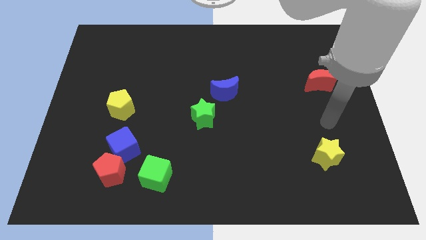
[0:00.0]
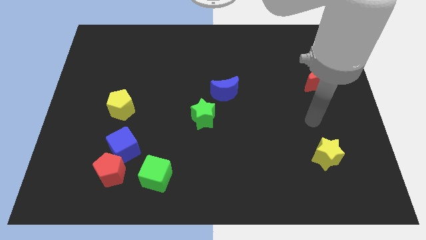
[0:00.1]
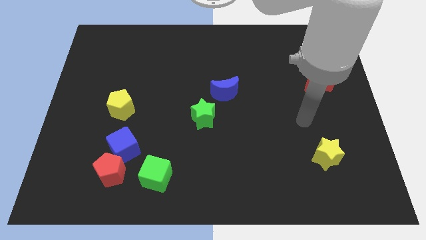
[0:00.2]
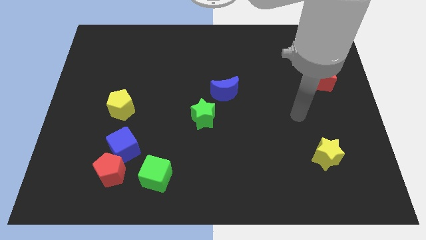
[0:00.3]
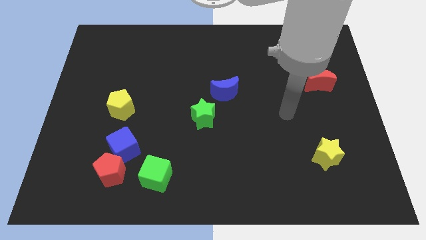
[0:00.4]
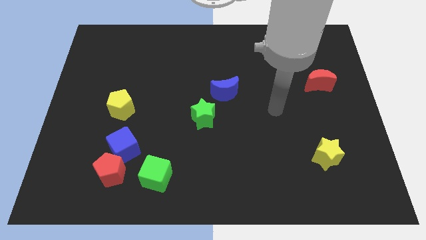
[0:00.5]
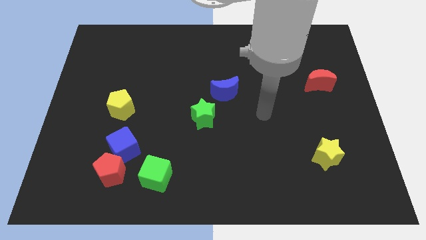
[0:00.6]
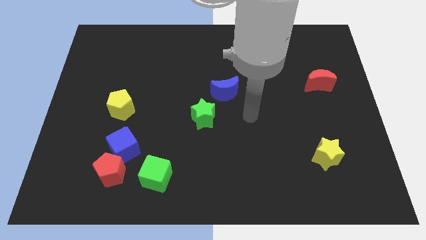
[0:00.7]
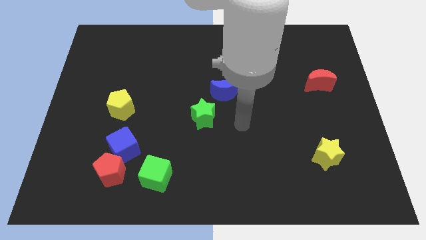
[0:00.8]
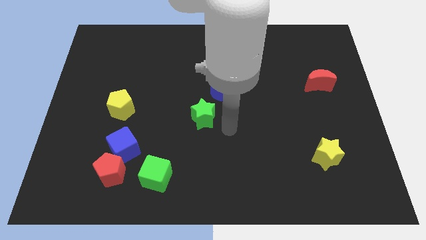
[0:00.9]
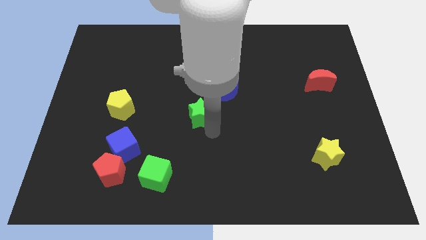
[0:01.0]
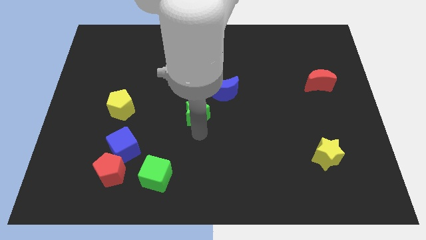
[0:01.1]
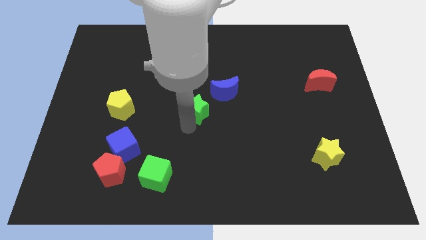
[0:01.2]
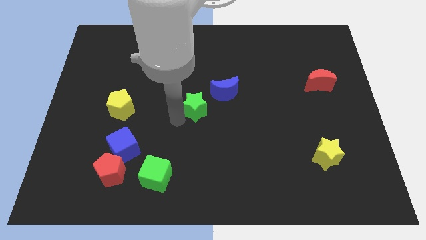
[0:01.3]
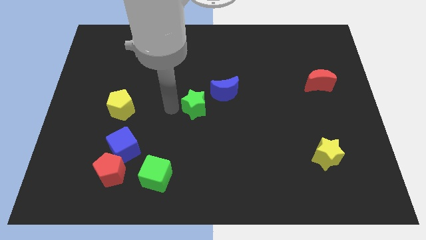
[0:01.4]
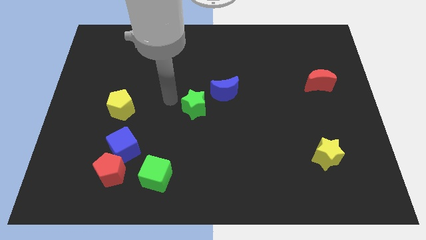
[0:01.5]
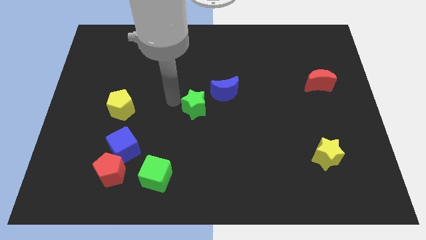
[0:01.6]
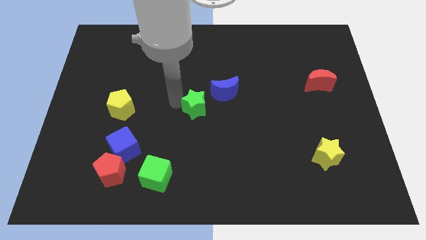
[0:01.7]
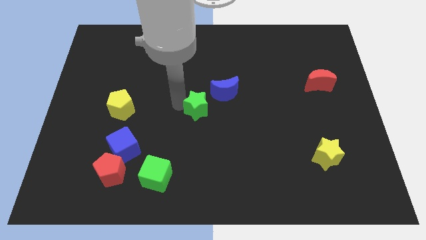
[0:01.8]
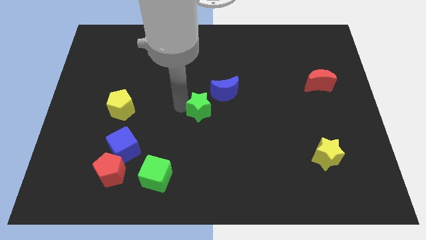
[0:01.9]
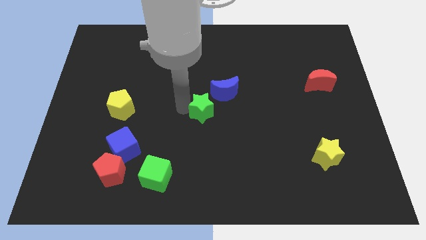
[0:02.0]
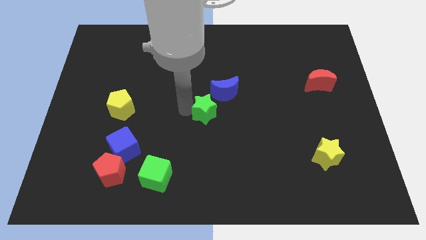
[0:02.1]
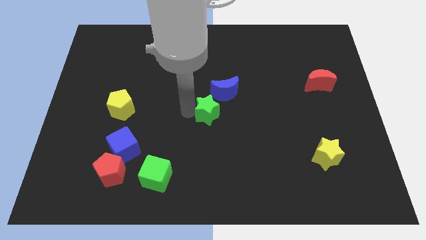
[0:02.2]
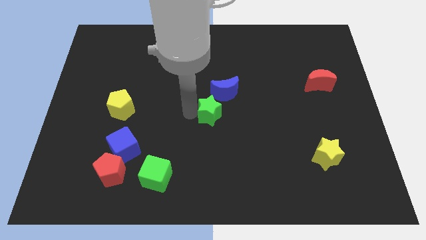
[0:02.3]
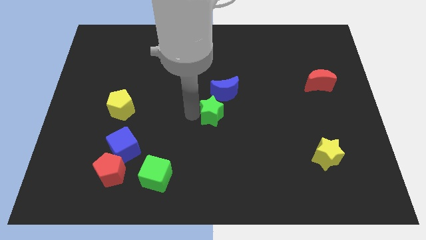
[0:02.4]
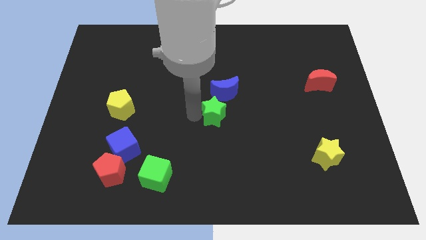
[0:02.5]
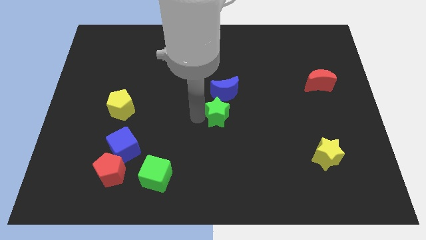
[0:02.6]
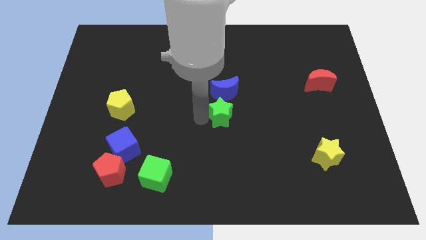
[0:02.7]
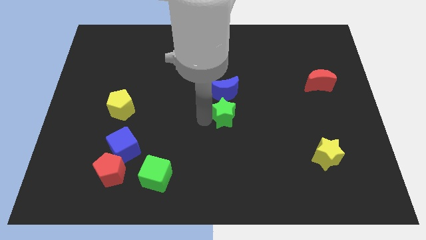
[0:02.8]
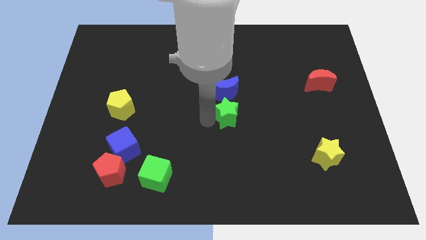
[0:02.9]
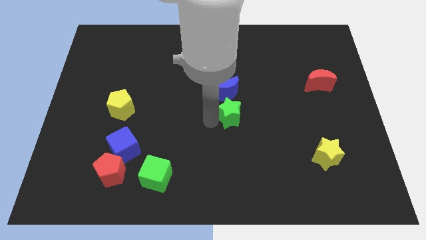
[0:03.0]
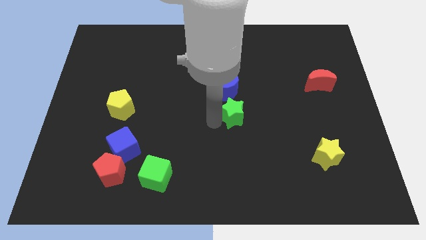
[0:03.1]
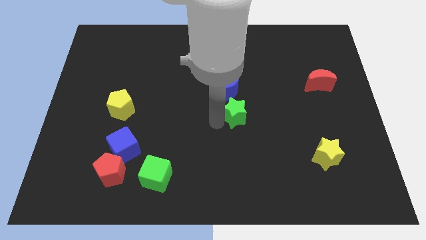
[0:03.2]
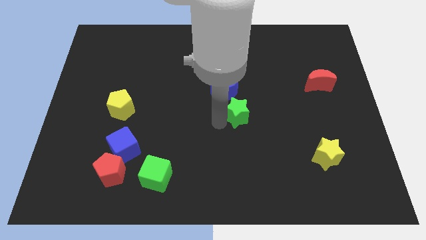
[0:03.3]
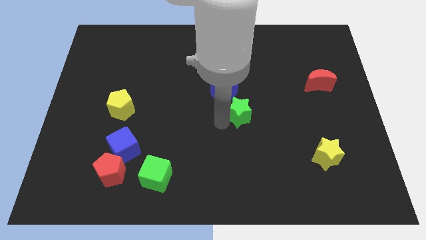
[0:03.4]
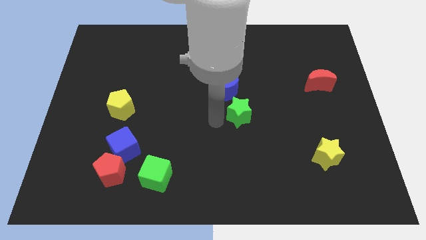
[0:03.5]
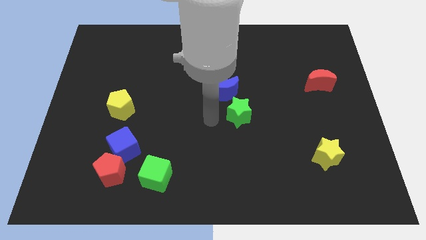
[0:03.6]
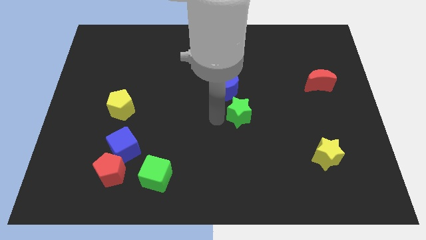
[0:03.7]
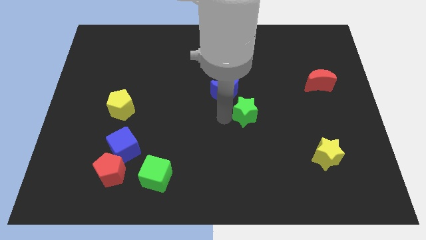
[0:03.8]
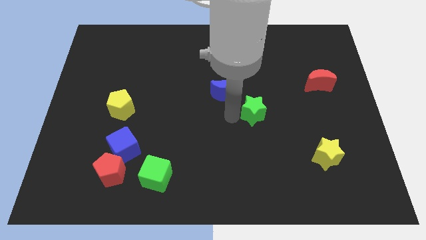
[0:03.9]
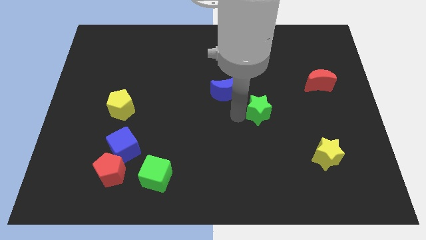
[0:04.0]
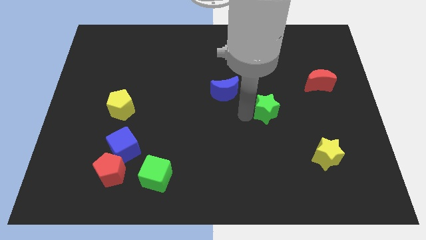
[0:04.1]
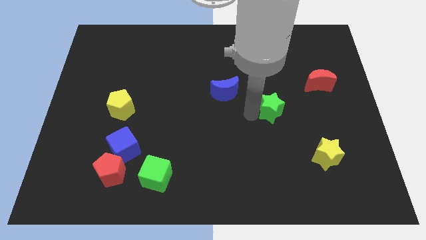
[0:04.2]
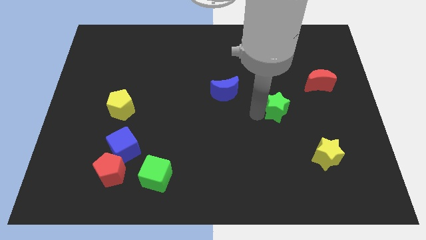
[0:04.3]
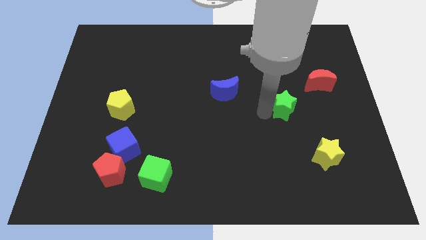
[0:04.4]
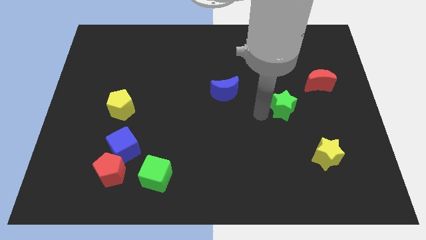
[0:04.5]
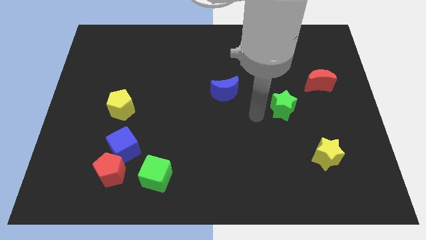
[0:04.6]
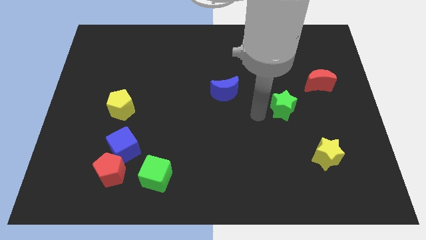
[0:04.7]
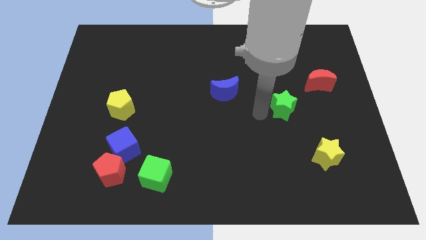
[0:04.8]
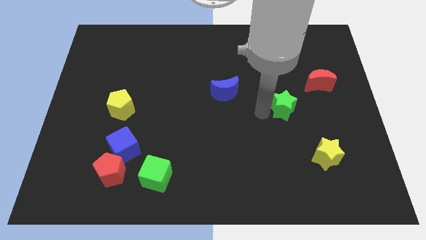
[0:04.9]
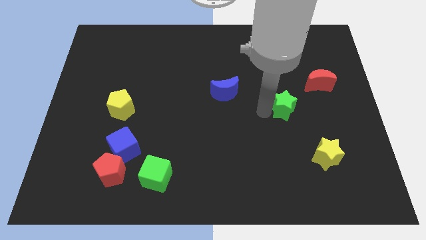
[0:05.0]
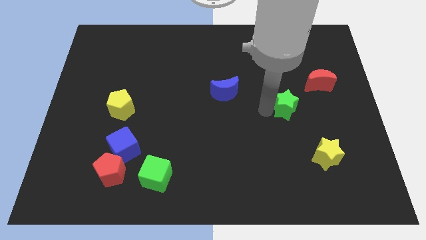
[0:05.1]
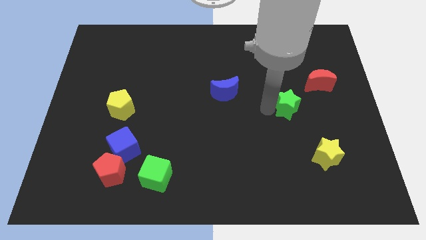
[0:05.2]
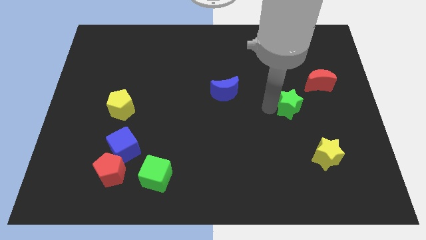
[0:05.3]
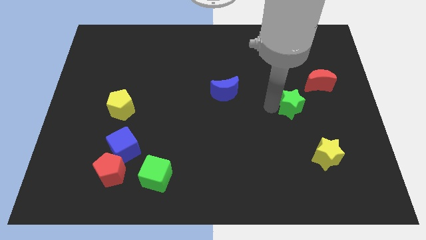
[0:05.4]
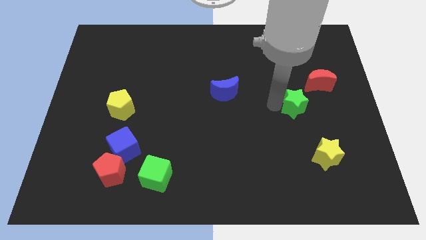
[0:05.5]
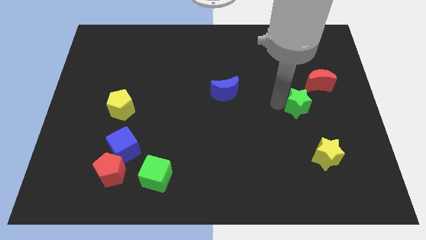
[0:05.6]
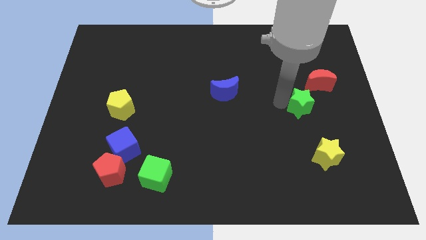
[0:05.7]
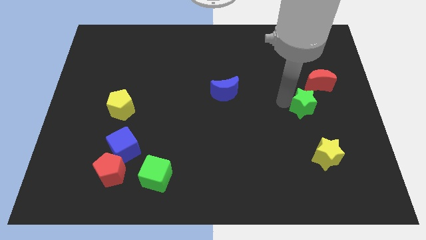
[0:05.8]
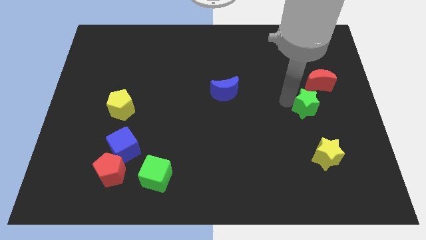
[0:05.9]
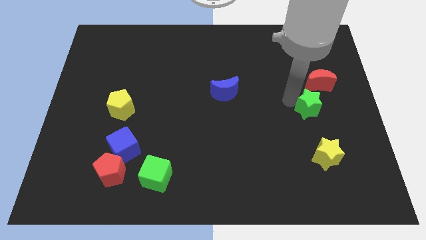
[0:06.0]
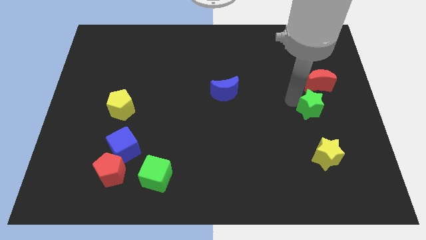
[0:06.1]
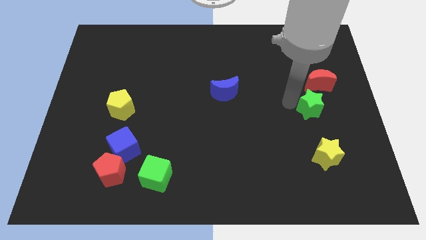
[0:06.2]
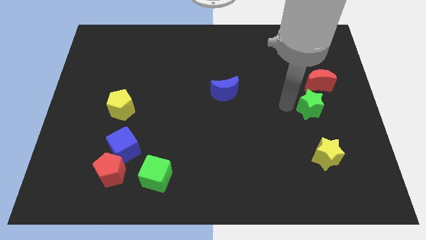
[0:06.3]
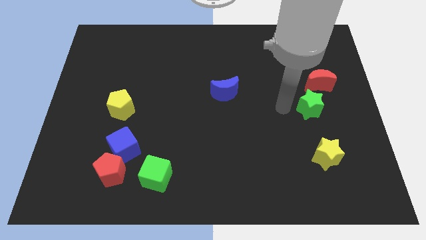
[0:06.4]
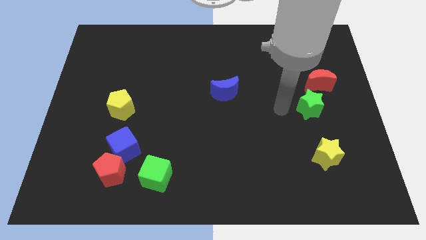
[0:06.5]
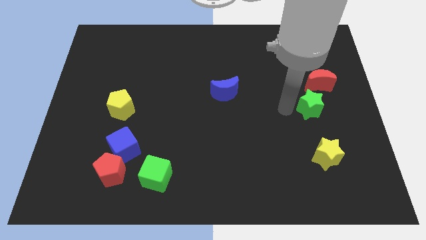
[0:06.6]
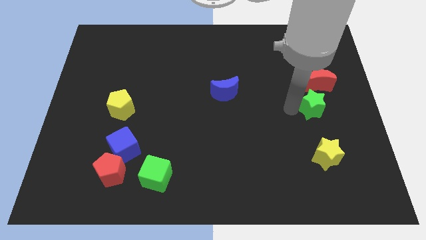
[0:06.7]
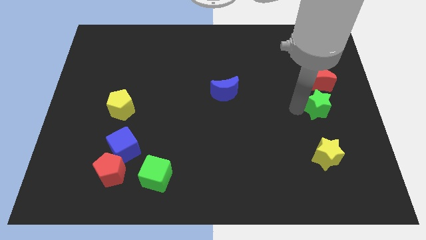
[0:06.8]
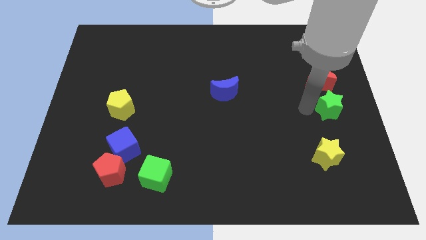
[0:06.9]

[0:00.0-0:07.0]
slide the green star to the right side of the board
